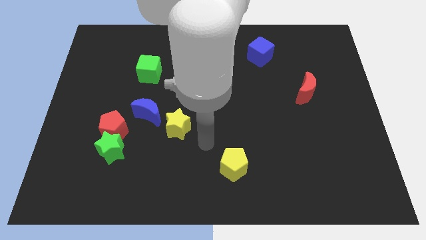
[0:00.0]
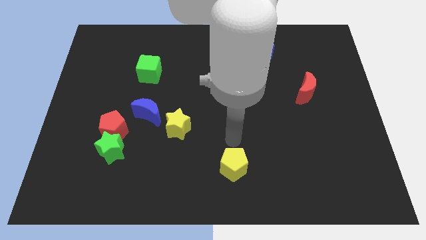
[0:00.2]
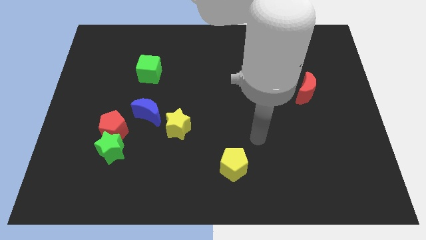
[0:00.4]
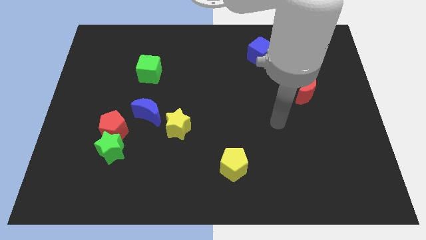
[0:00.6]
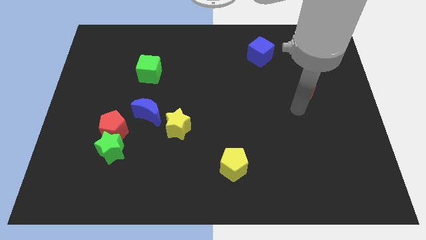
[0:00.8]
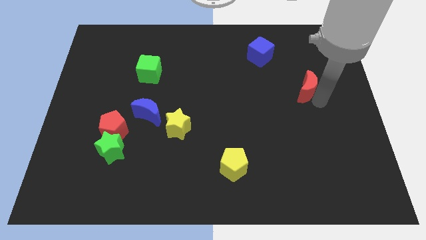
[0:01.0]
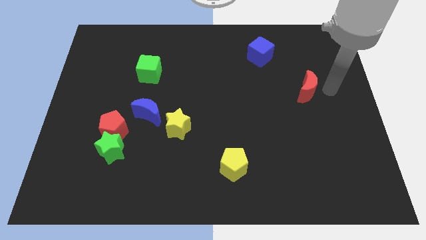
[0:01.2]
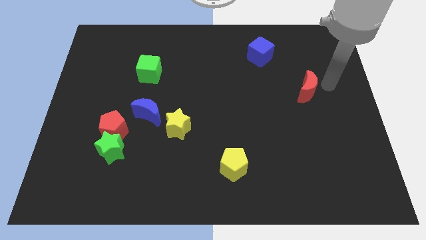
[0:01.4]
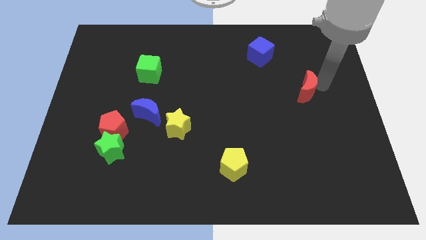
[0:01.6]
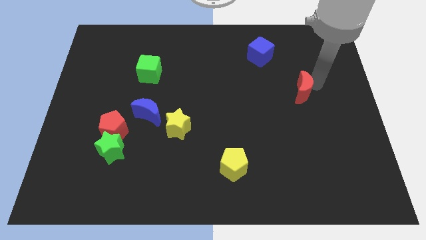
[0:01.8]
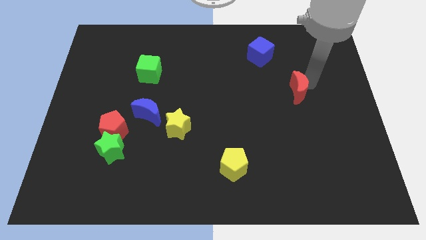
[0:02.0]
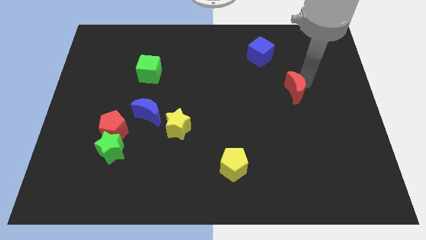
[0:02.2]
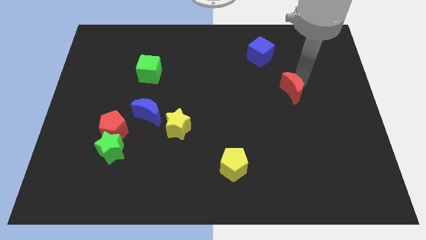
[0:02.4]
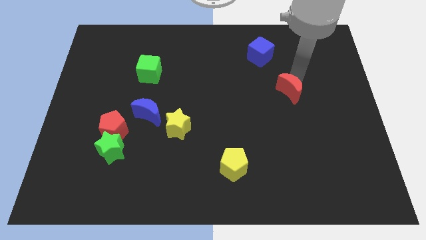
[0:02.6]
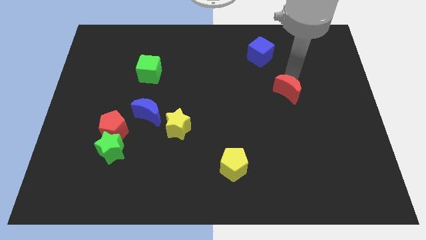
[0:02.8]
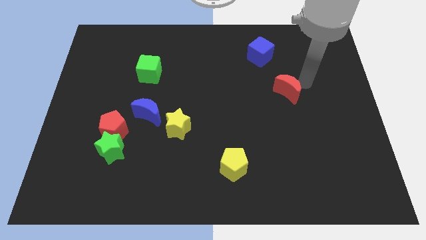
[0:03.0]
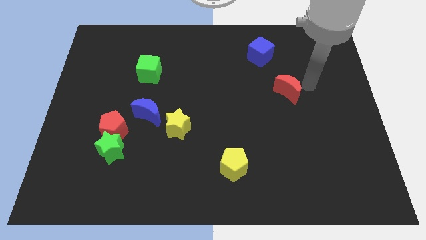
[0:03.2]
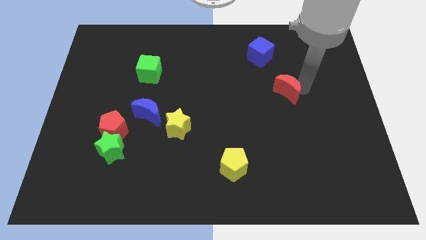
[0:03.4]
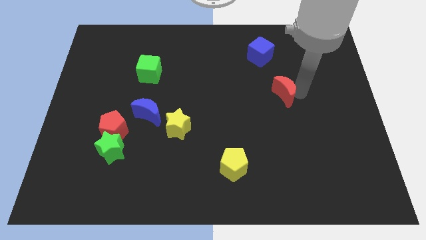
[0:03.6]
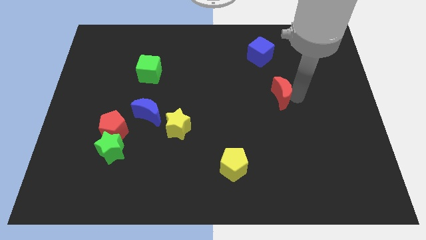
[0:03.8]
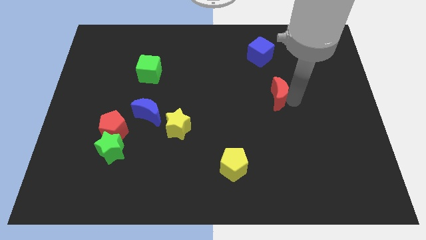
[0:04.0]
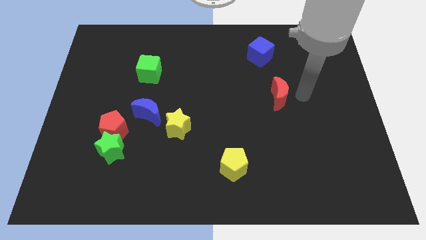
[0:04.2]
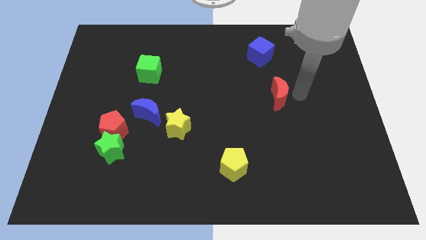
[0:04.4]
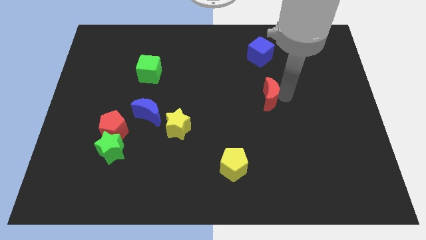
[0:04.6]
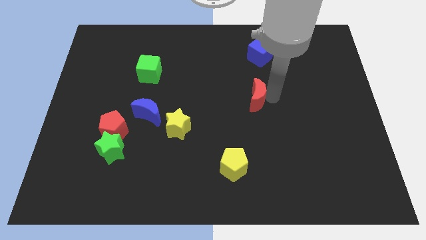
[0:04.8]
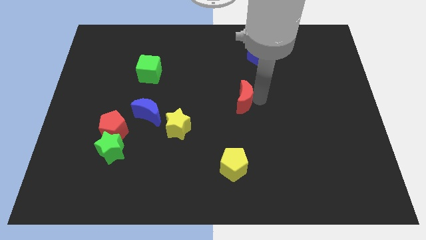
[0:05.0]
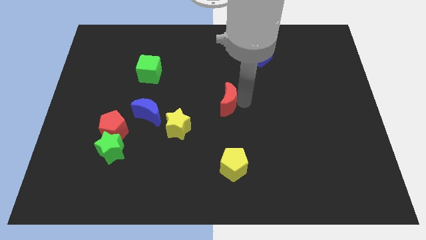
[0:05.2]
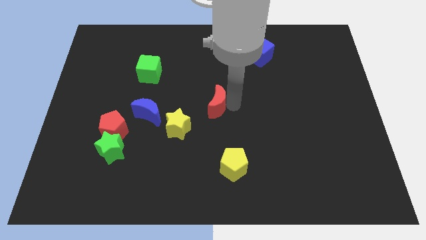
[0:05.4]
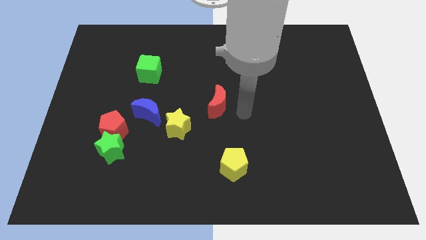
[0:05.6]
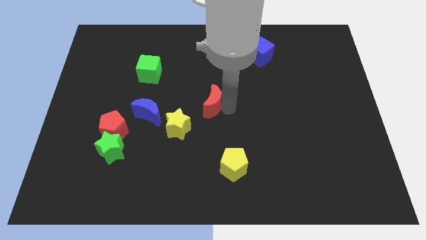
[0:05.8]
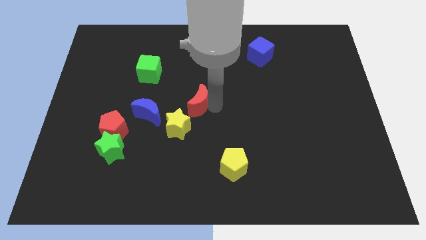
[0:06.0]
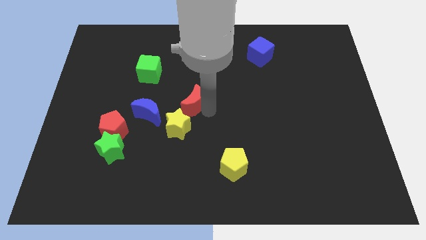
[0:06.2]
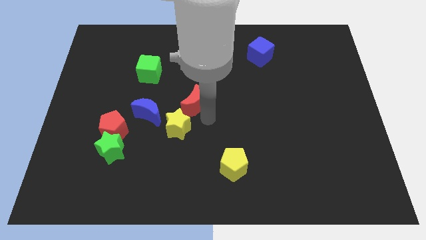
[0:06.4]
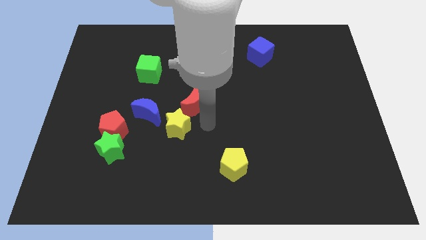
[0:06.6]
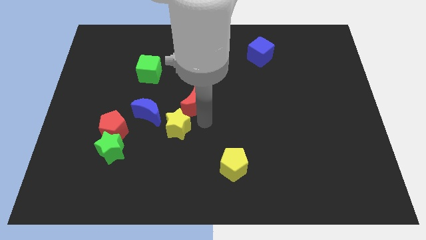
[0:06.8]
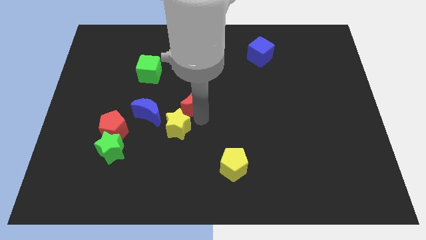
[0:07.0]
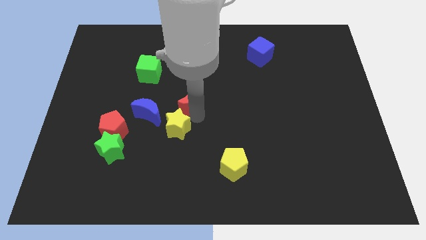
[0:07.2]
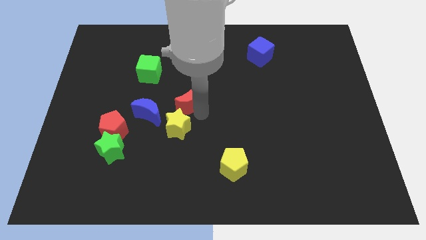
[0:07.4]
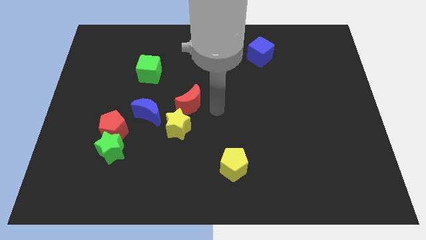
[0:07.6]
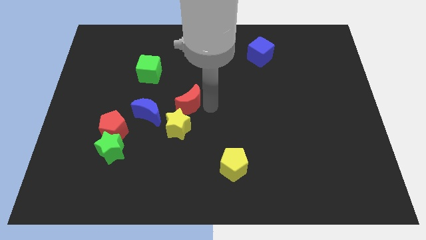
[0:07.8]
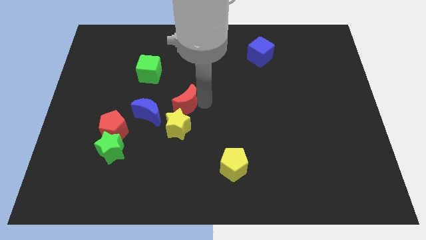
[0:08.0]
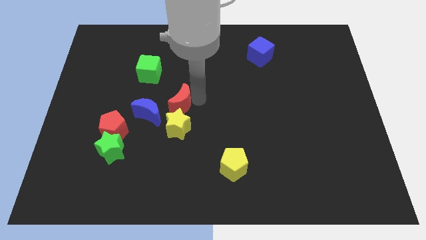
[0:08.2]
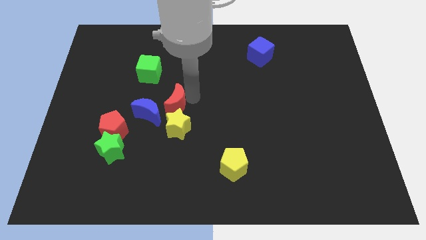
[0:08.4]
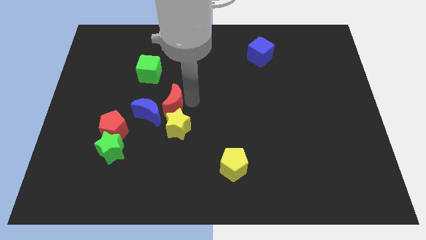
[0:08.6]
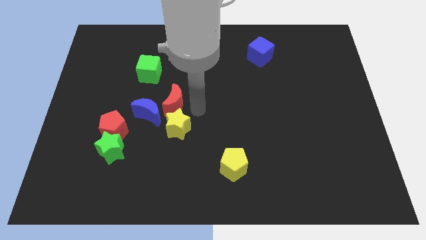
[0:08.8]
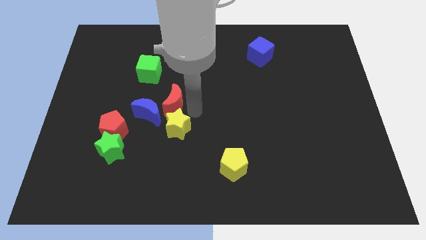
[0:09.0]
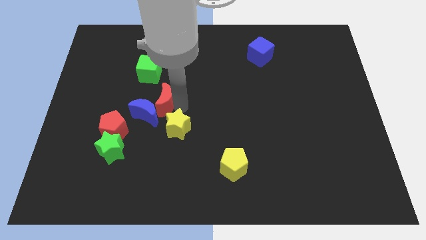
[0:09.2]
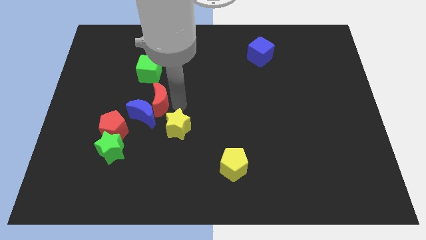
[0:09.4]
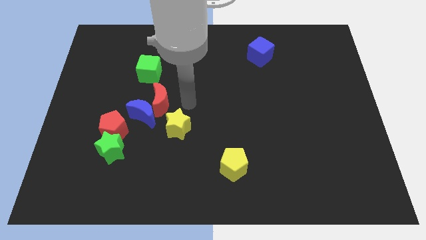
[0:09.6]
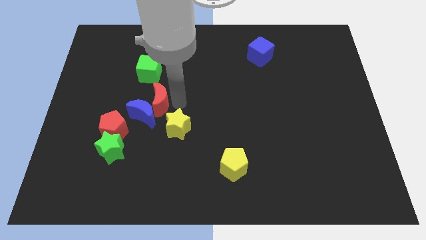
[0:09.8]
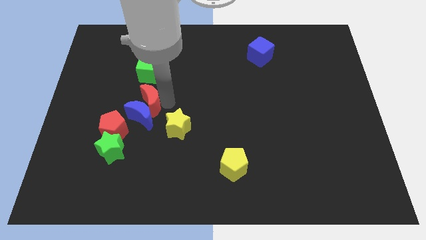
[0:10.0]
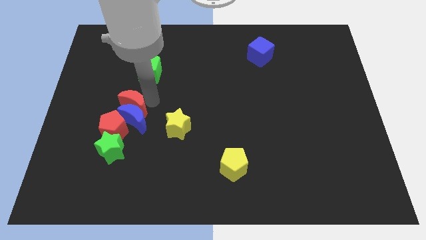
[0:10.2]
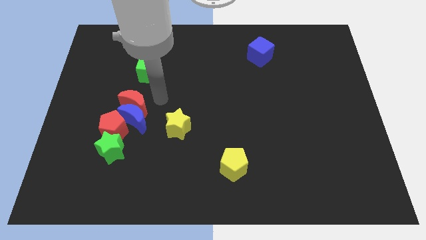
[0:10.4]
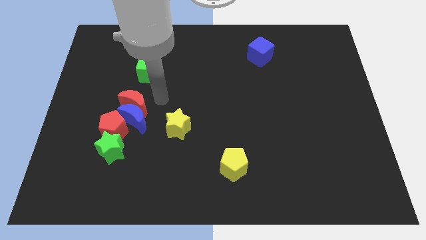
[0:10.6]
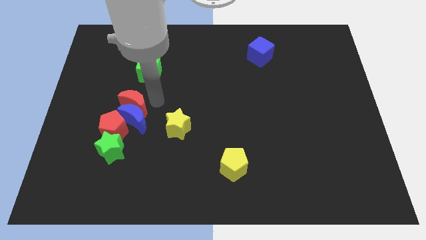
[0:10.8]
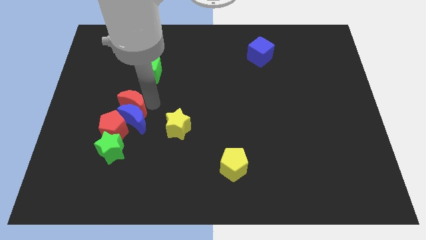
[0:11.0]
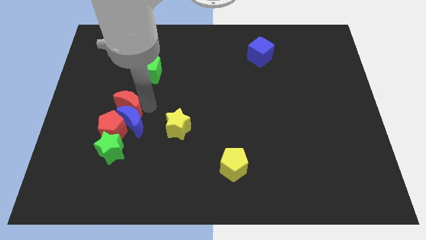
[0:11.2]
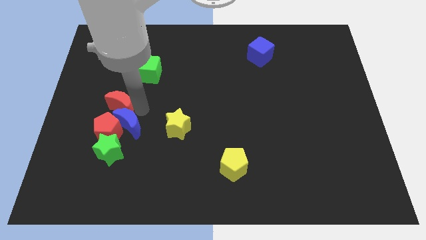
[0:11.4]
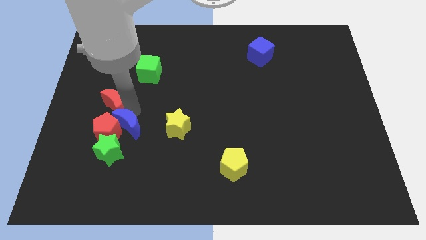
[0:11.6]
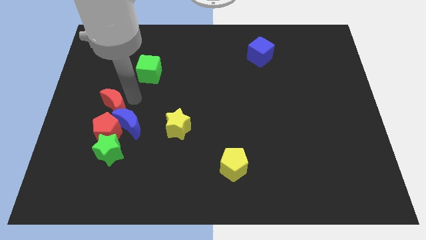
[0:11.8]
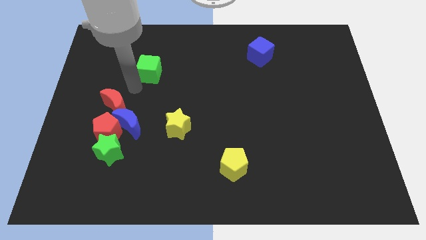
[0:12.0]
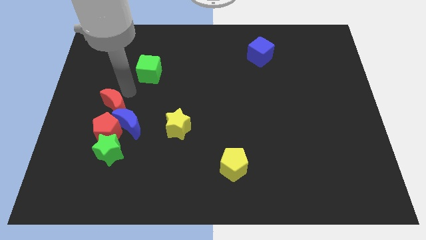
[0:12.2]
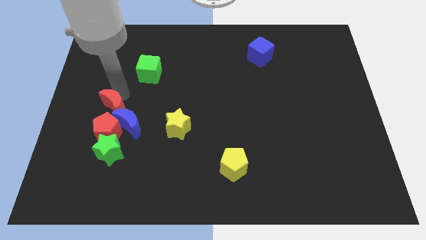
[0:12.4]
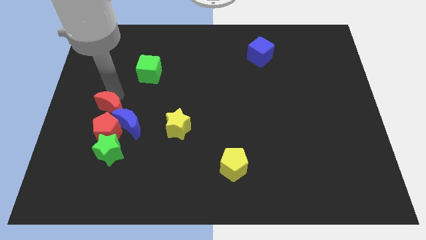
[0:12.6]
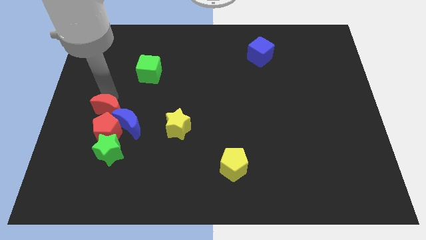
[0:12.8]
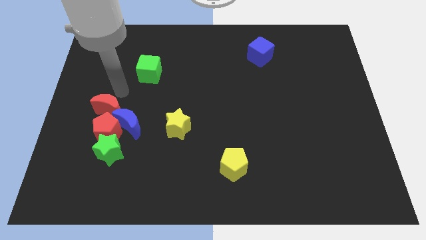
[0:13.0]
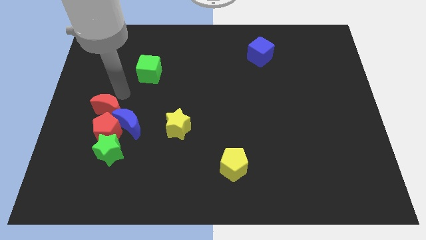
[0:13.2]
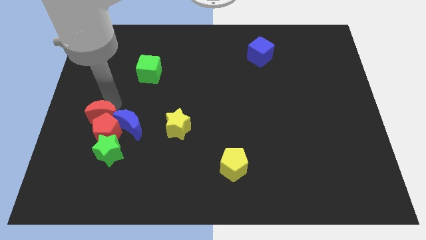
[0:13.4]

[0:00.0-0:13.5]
put the red moon to the top left of the green star
